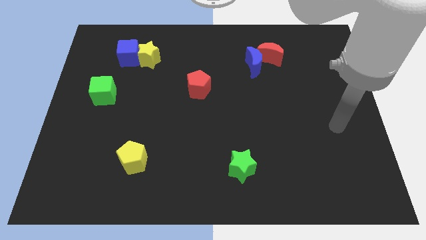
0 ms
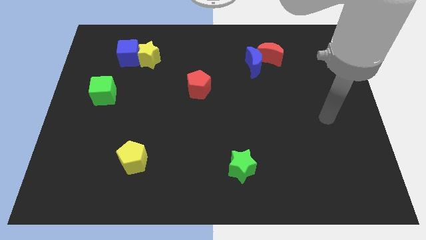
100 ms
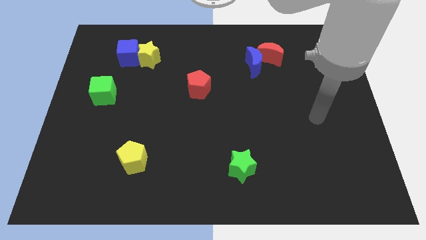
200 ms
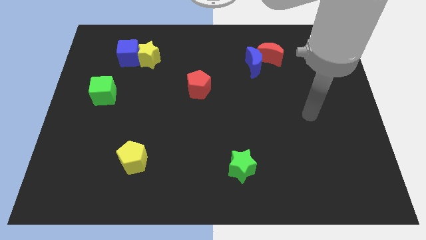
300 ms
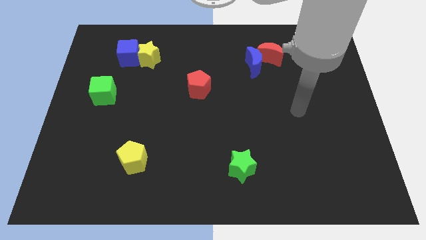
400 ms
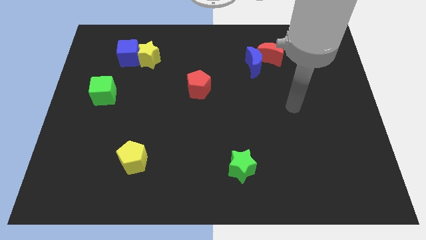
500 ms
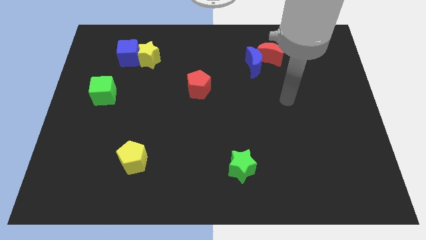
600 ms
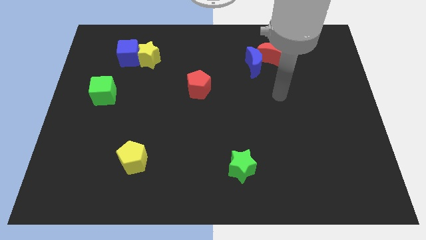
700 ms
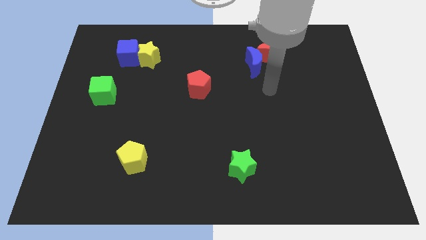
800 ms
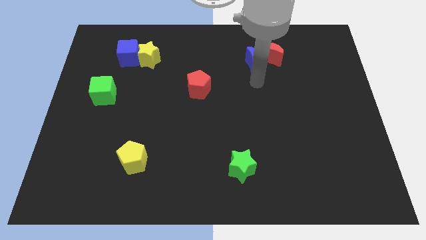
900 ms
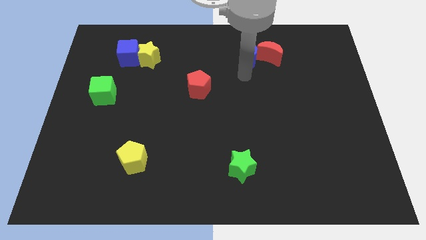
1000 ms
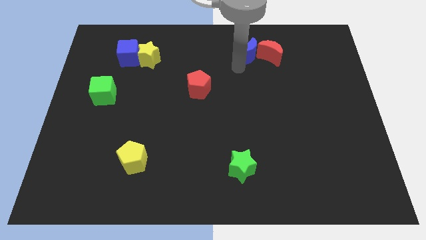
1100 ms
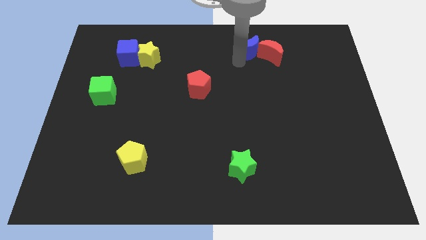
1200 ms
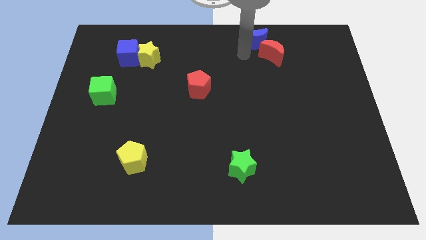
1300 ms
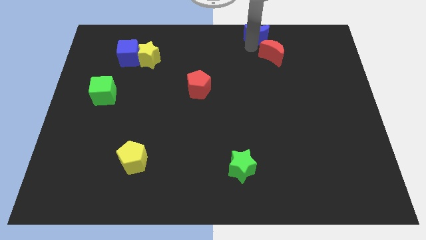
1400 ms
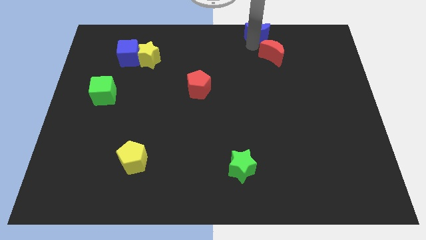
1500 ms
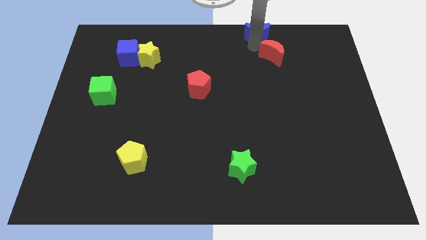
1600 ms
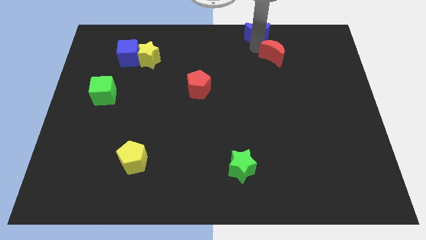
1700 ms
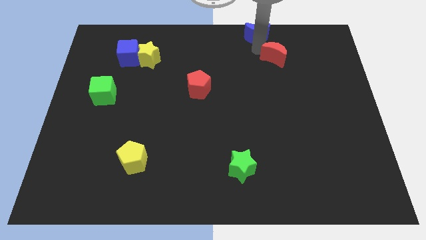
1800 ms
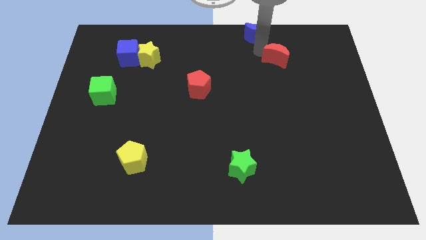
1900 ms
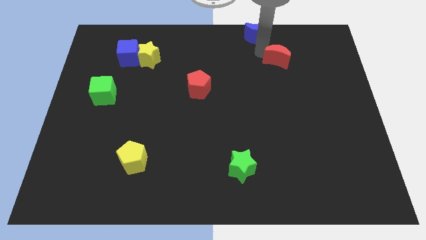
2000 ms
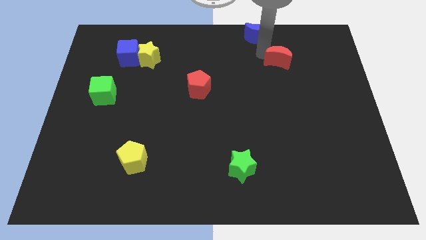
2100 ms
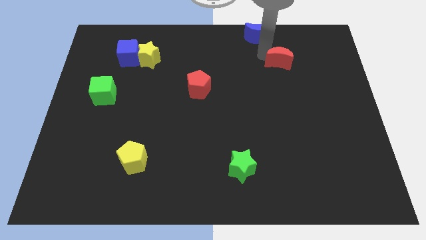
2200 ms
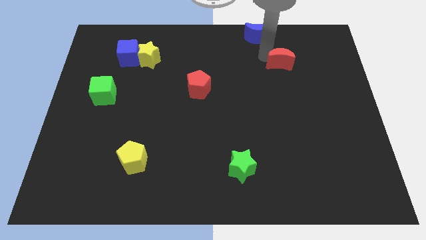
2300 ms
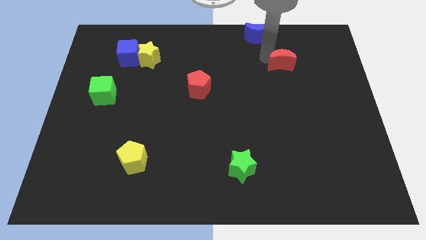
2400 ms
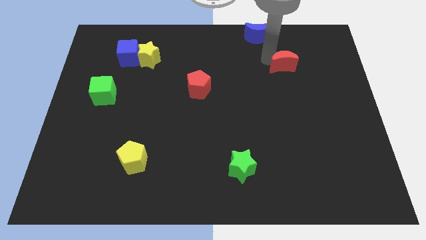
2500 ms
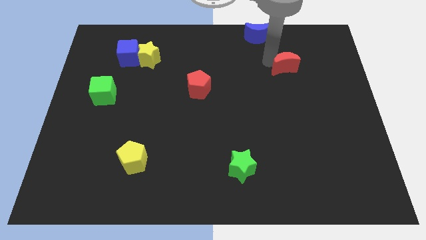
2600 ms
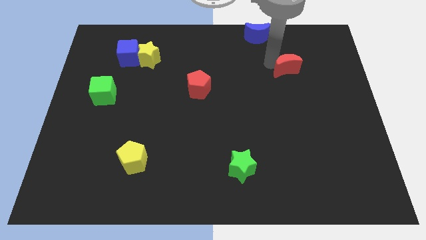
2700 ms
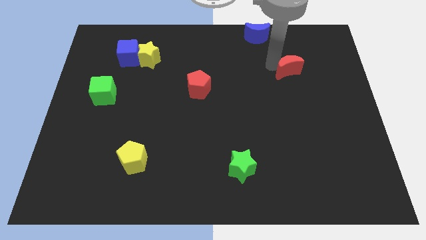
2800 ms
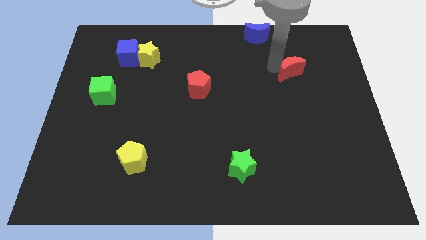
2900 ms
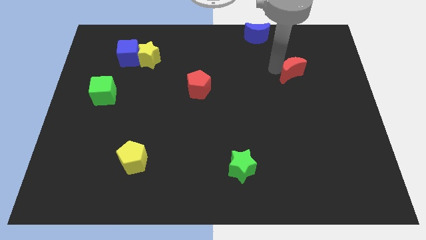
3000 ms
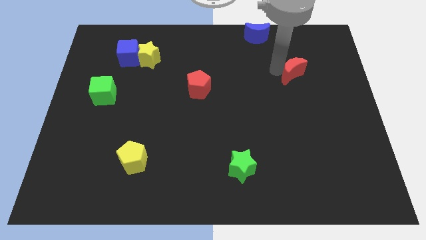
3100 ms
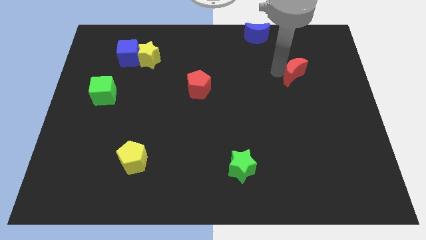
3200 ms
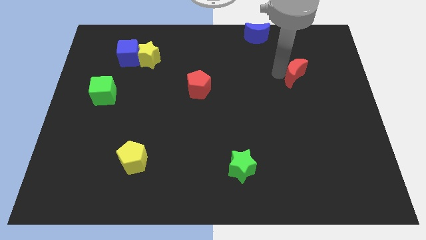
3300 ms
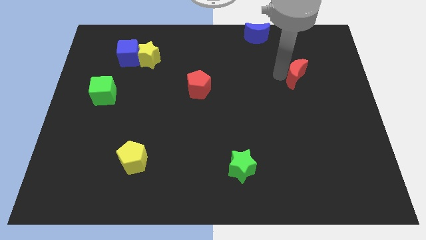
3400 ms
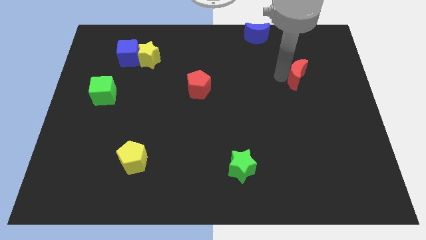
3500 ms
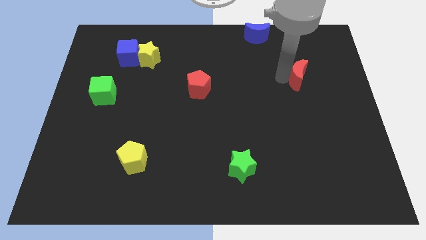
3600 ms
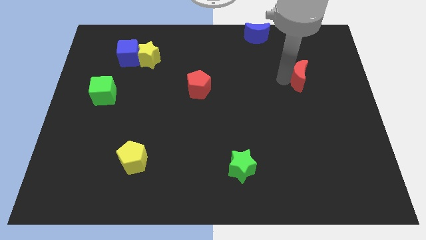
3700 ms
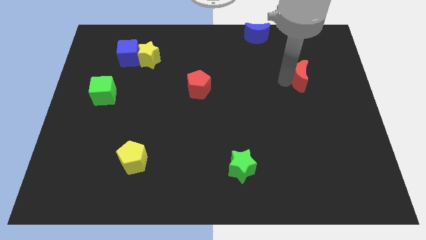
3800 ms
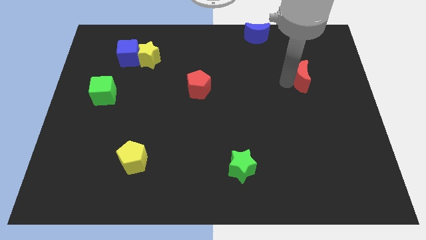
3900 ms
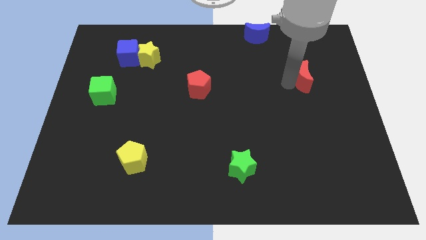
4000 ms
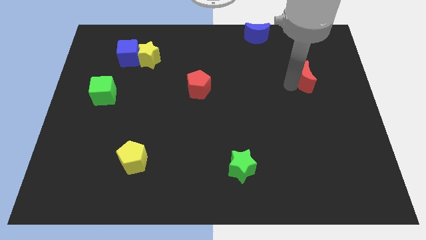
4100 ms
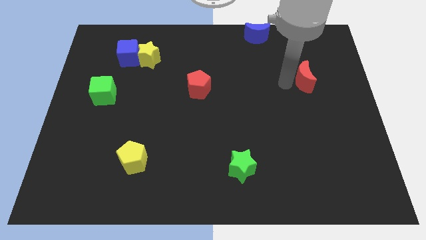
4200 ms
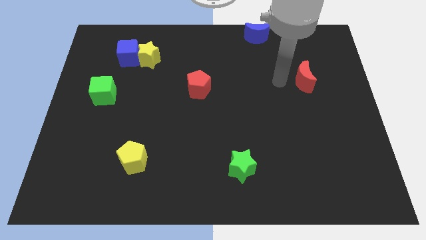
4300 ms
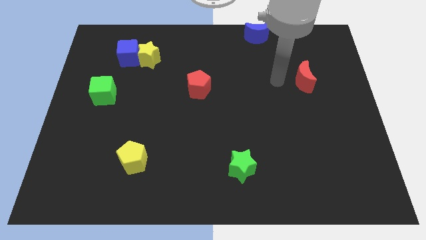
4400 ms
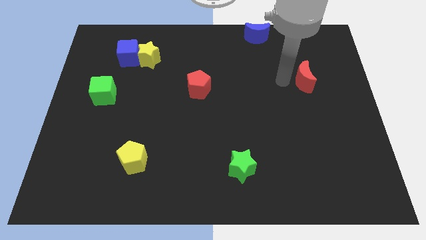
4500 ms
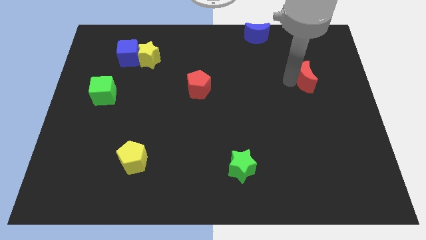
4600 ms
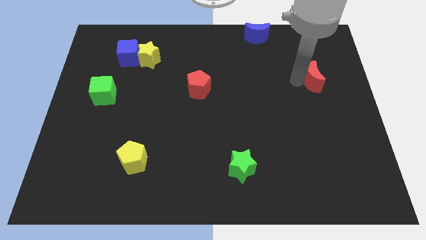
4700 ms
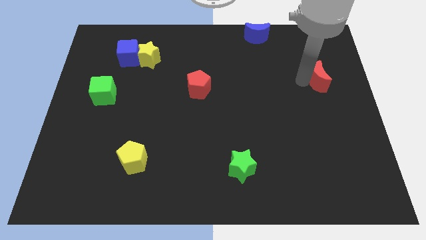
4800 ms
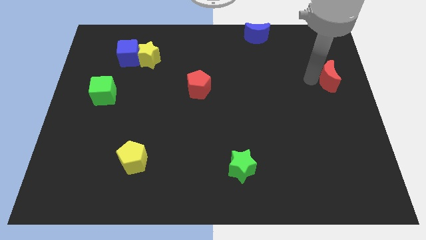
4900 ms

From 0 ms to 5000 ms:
slide the red moon to the center right
